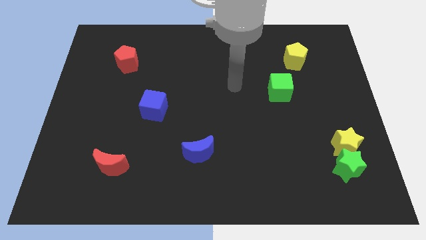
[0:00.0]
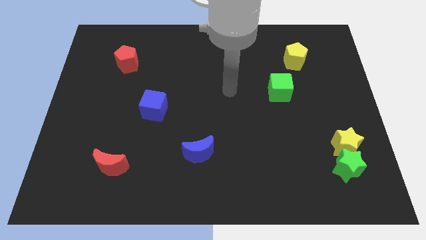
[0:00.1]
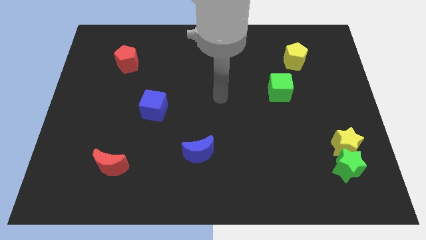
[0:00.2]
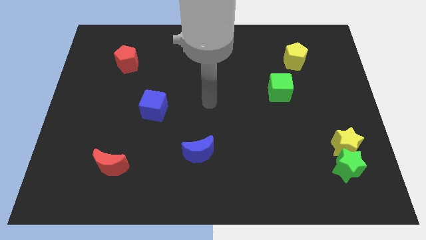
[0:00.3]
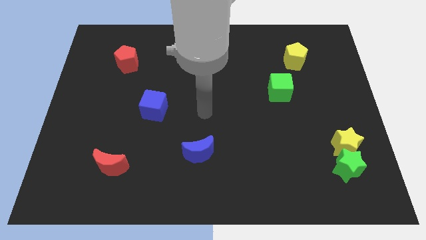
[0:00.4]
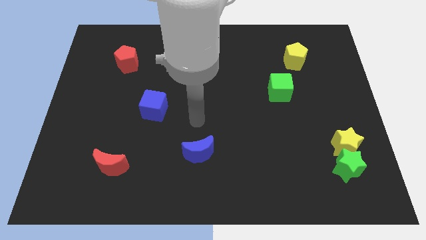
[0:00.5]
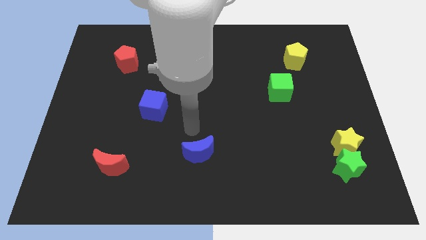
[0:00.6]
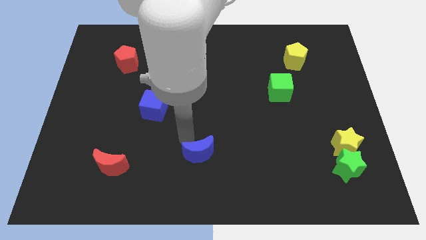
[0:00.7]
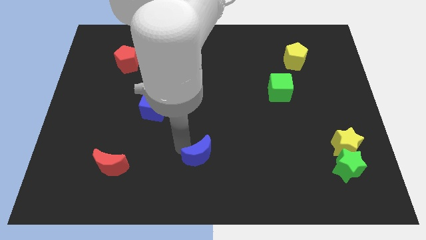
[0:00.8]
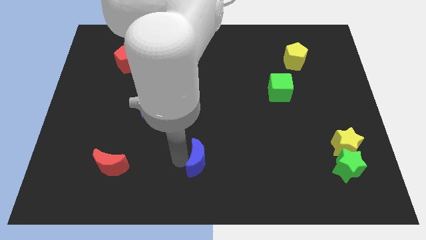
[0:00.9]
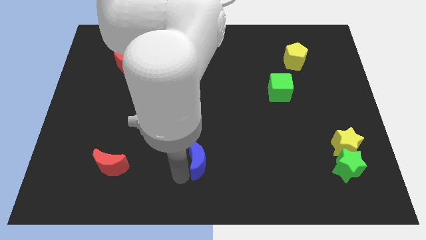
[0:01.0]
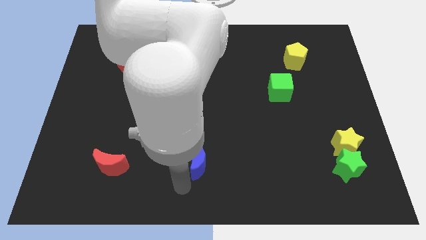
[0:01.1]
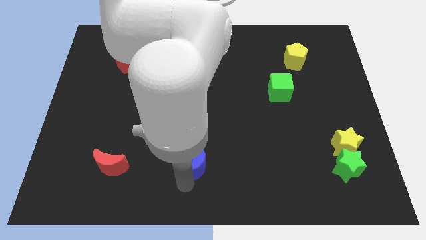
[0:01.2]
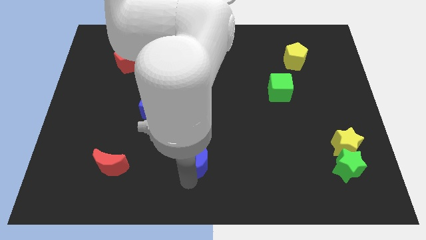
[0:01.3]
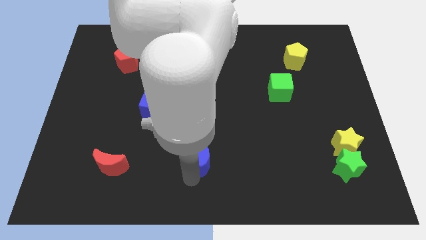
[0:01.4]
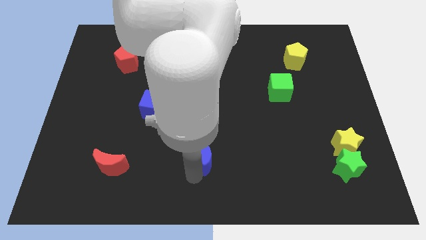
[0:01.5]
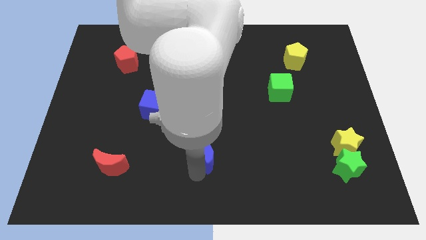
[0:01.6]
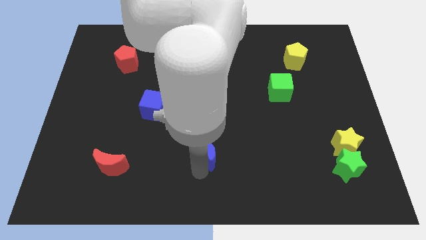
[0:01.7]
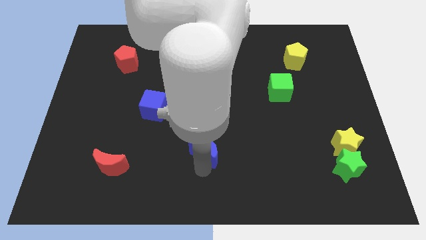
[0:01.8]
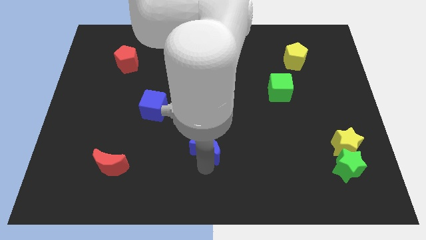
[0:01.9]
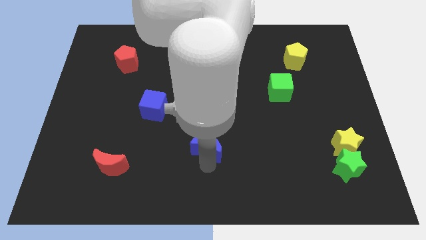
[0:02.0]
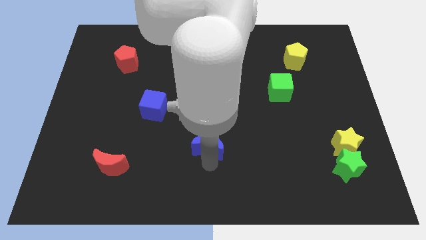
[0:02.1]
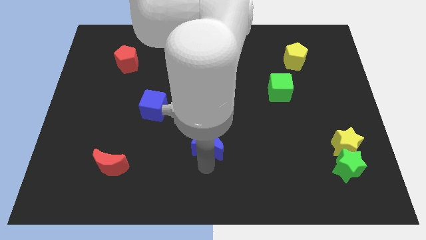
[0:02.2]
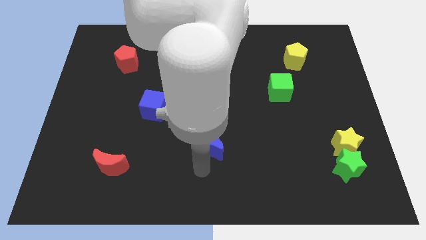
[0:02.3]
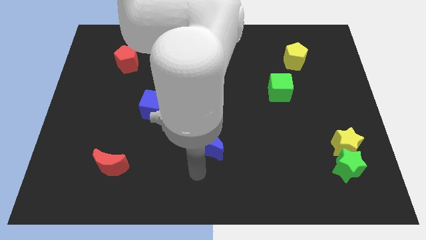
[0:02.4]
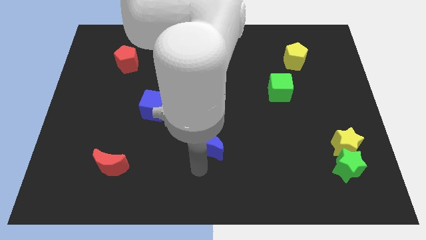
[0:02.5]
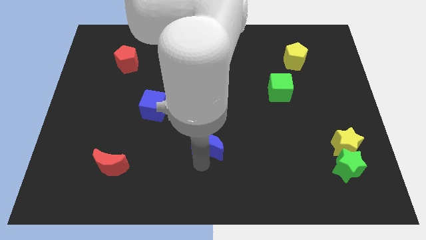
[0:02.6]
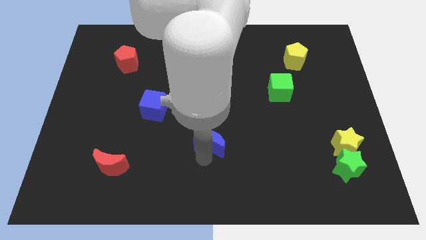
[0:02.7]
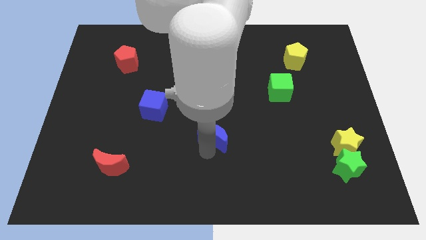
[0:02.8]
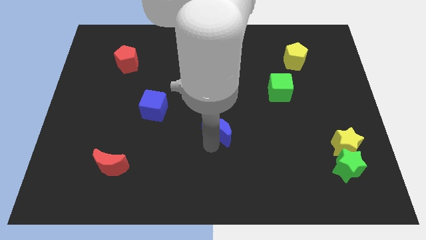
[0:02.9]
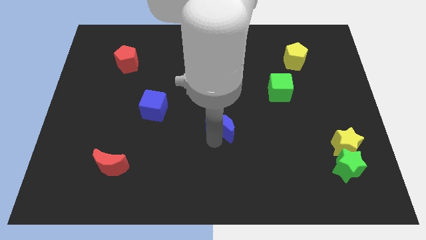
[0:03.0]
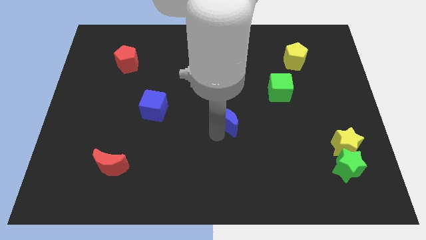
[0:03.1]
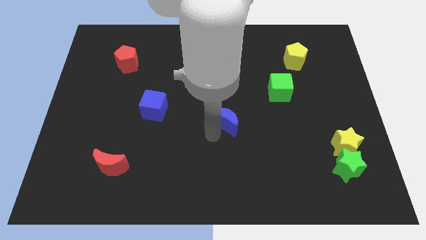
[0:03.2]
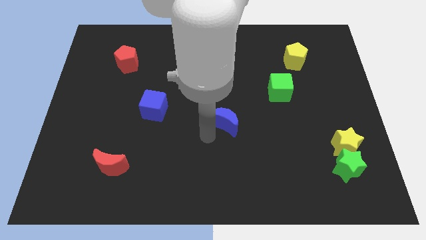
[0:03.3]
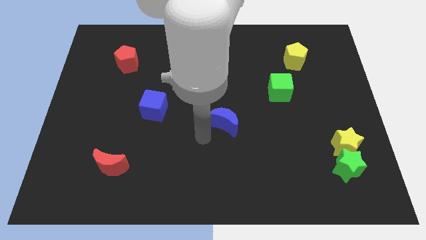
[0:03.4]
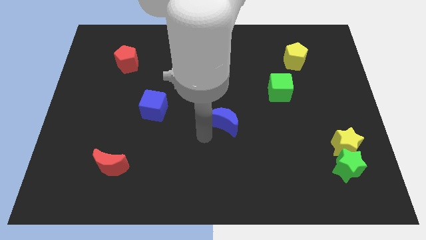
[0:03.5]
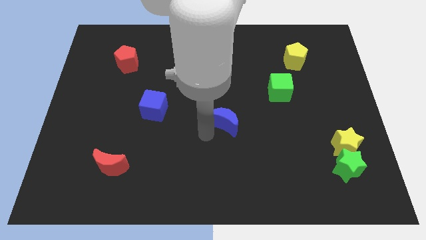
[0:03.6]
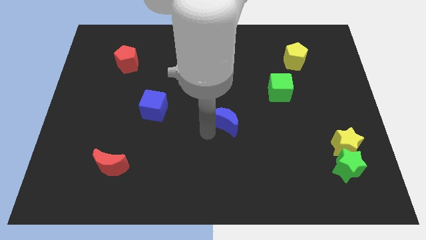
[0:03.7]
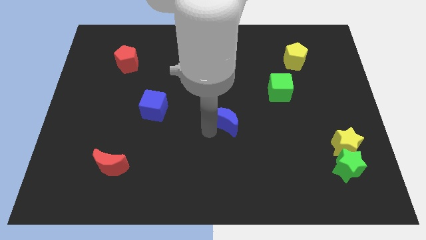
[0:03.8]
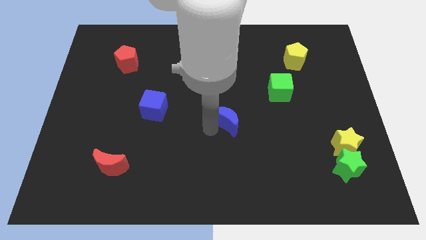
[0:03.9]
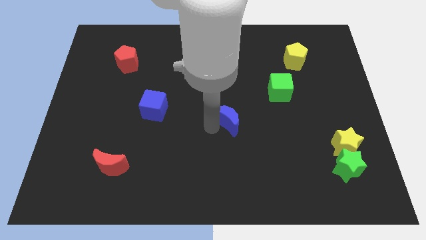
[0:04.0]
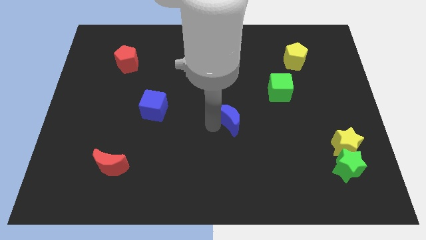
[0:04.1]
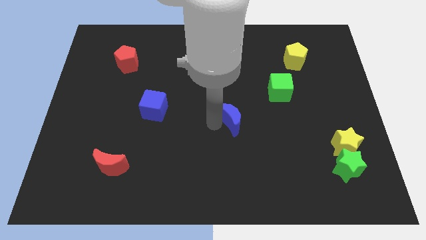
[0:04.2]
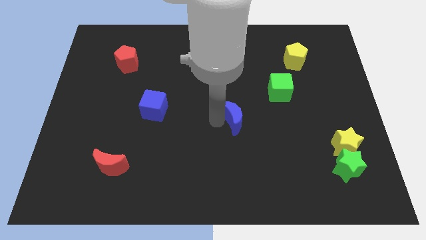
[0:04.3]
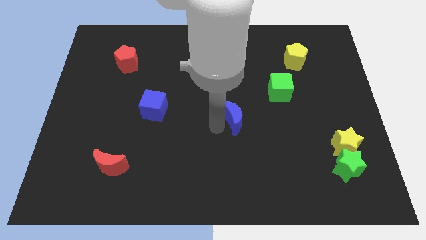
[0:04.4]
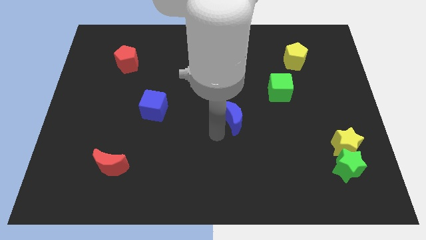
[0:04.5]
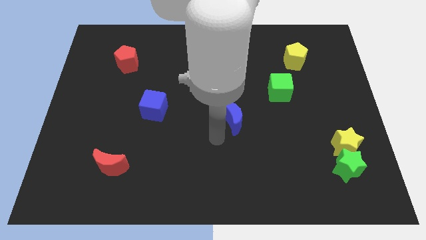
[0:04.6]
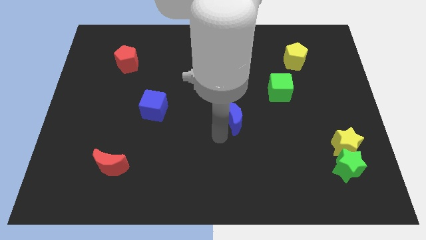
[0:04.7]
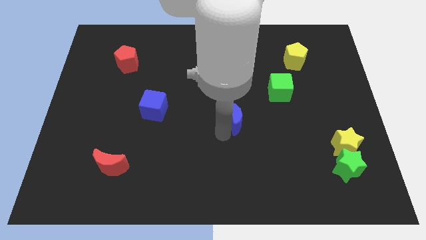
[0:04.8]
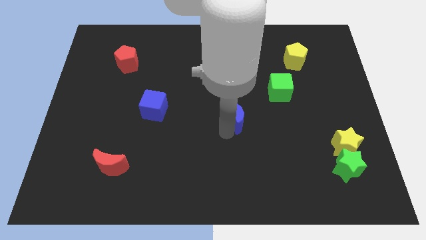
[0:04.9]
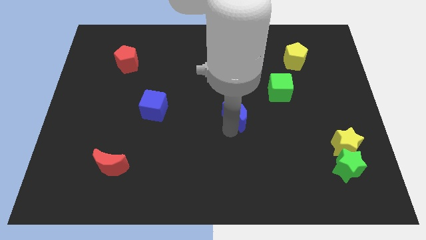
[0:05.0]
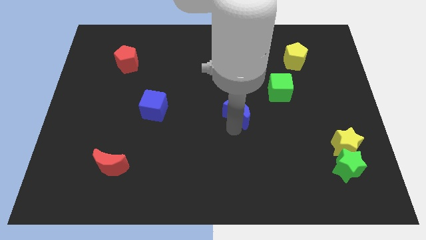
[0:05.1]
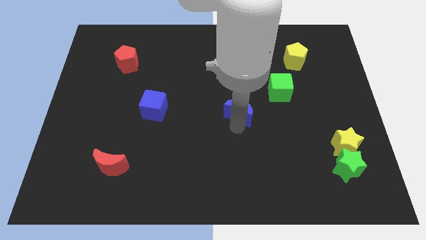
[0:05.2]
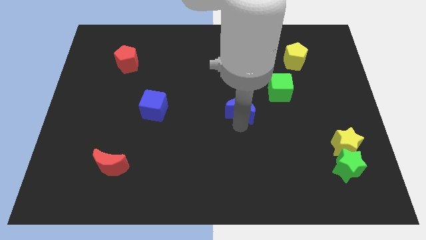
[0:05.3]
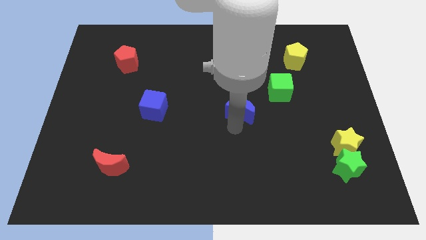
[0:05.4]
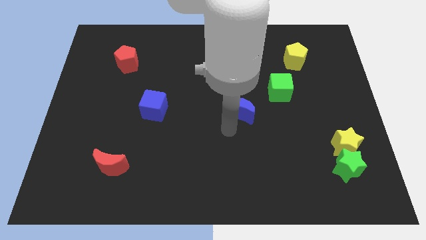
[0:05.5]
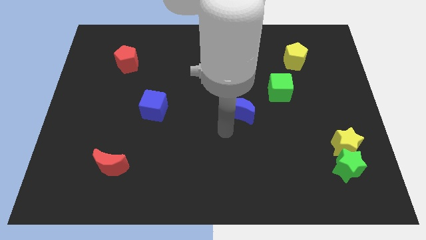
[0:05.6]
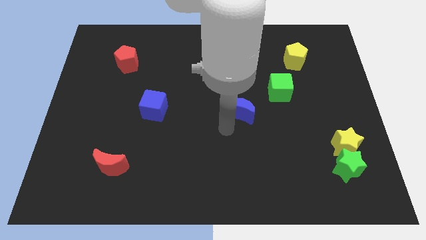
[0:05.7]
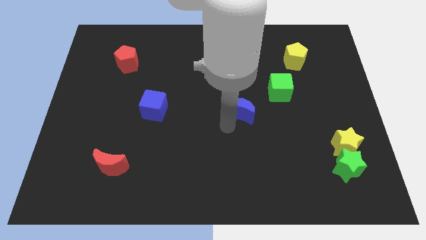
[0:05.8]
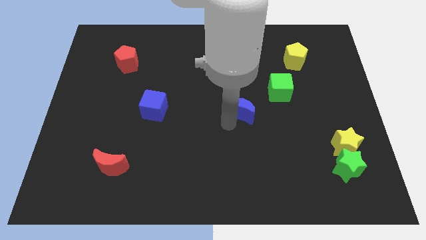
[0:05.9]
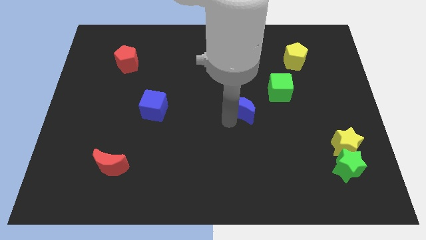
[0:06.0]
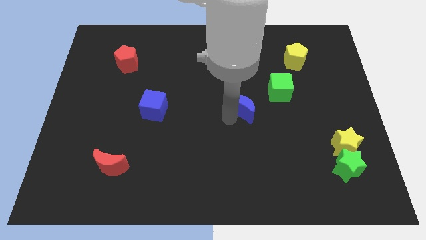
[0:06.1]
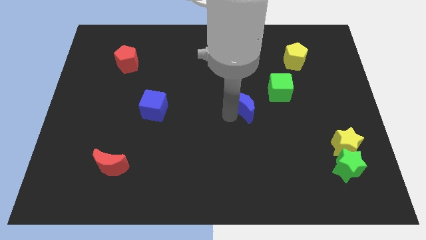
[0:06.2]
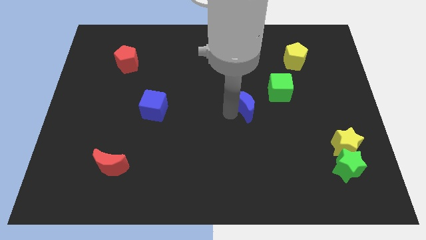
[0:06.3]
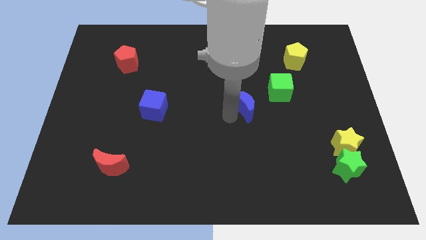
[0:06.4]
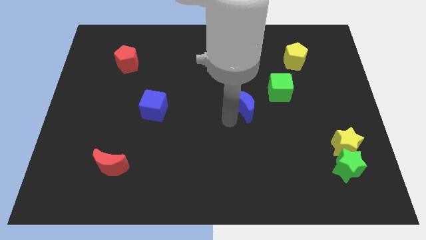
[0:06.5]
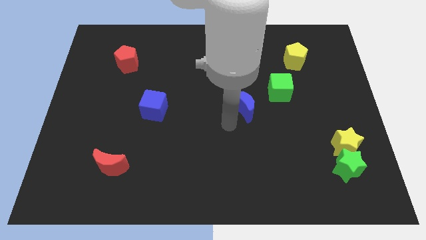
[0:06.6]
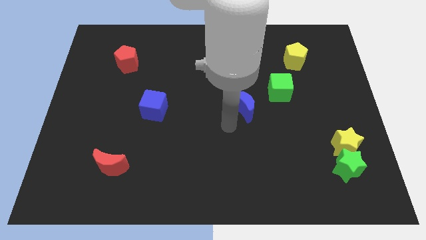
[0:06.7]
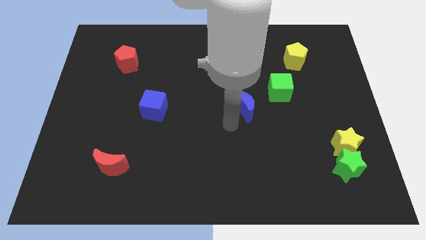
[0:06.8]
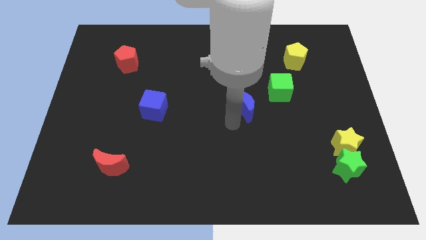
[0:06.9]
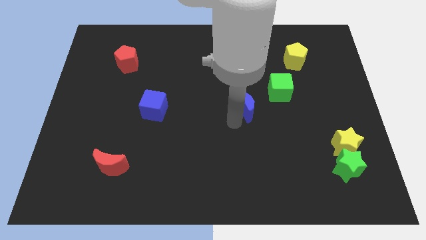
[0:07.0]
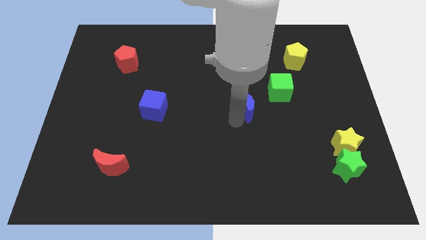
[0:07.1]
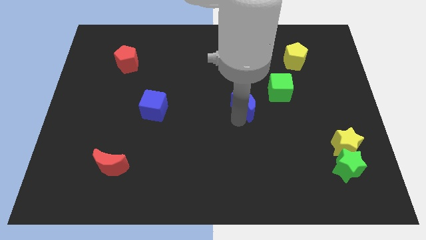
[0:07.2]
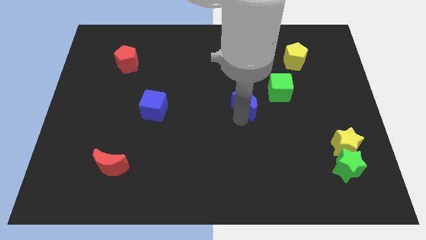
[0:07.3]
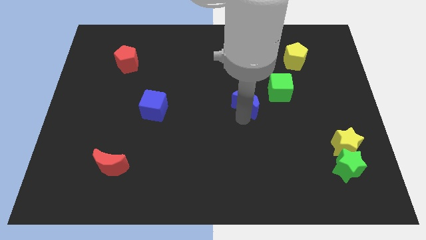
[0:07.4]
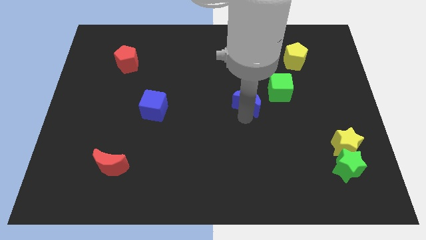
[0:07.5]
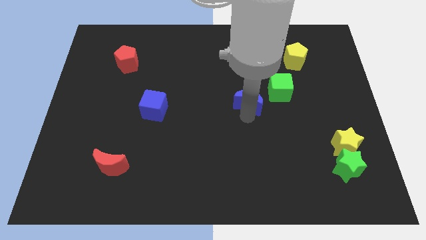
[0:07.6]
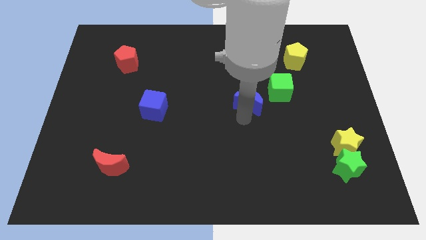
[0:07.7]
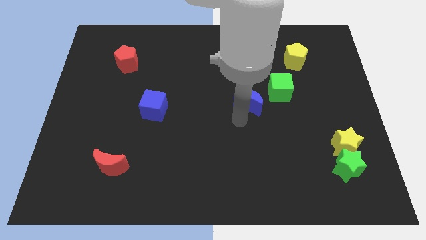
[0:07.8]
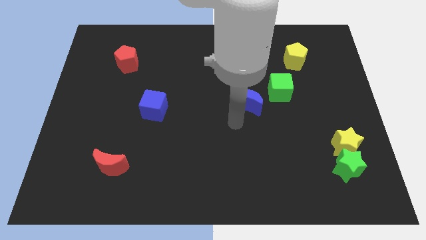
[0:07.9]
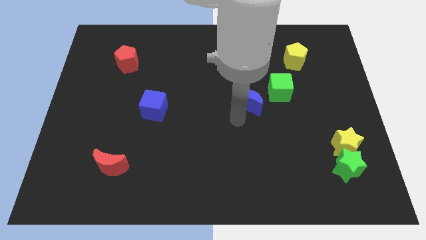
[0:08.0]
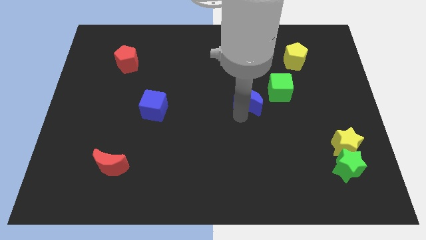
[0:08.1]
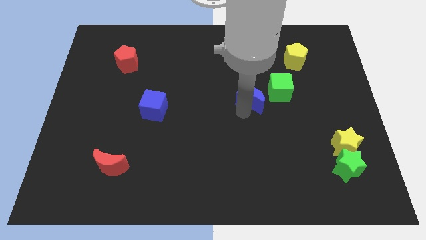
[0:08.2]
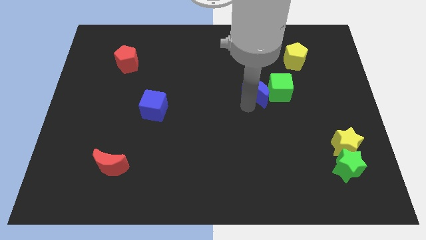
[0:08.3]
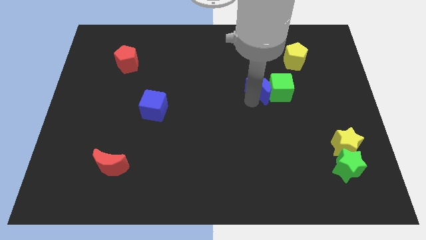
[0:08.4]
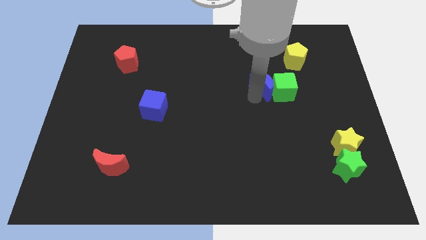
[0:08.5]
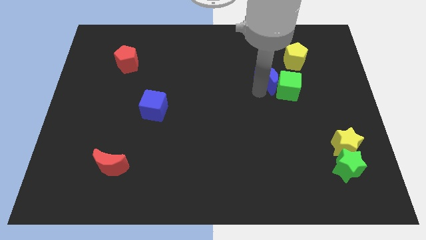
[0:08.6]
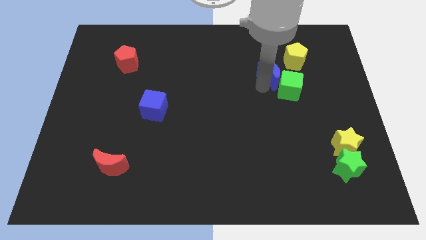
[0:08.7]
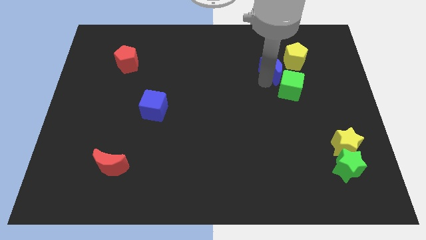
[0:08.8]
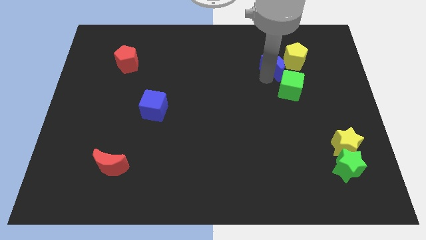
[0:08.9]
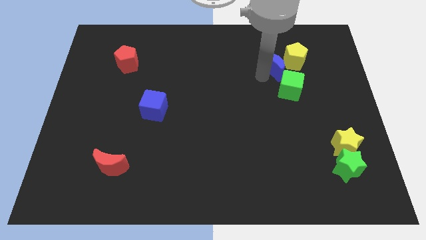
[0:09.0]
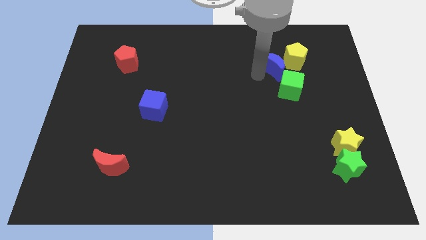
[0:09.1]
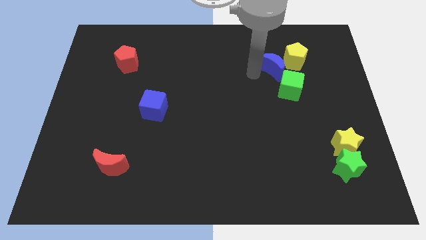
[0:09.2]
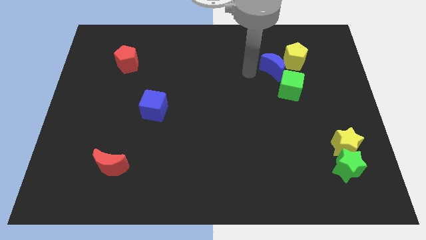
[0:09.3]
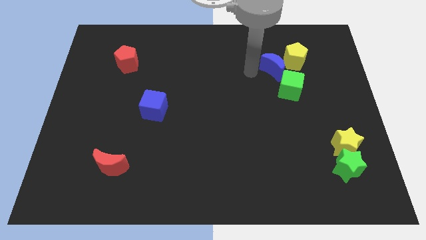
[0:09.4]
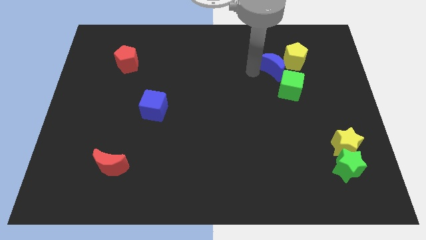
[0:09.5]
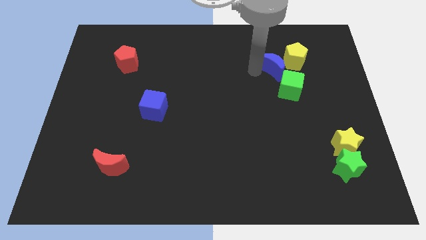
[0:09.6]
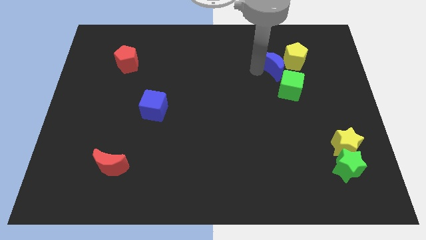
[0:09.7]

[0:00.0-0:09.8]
move the blue moon towards the yellow pentagon
